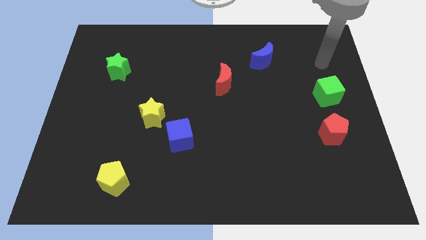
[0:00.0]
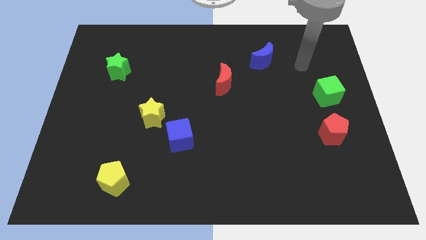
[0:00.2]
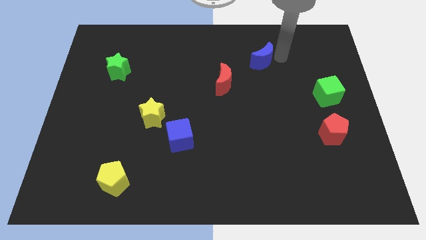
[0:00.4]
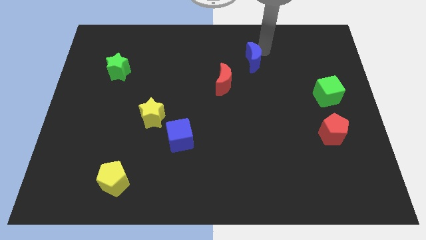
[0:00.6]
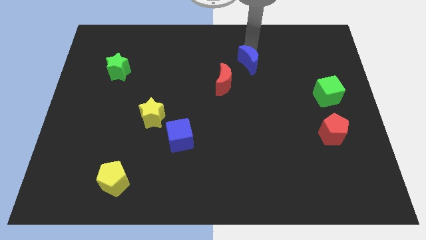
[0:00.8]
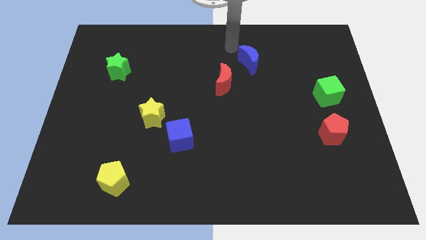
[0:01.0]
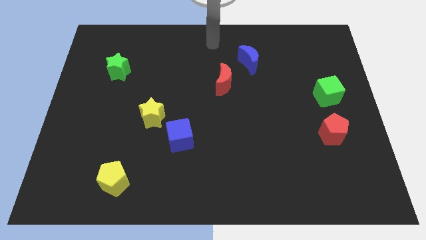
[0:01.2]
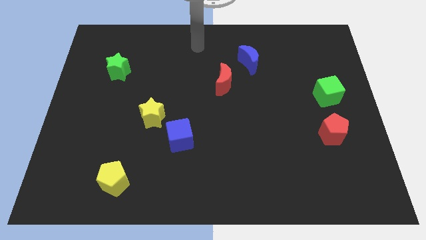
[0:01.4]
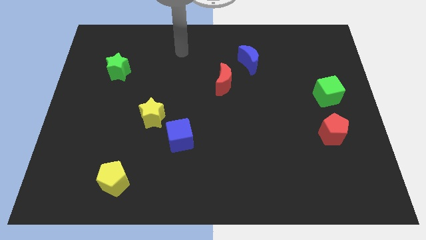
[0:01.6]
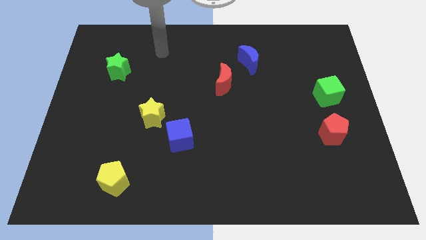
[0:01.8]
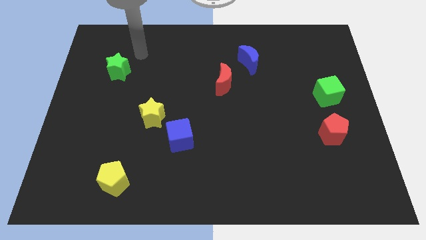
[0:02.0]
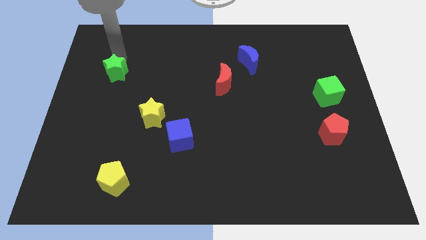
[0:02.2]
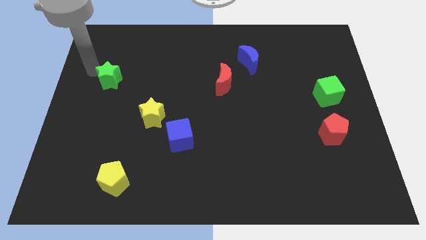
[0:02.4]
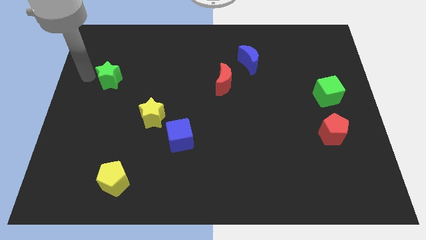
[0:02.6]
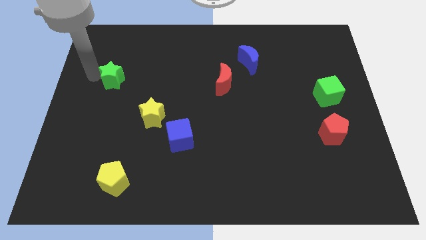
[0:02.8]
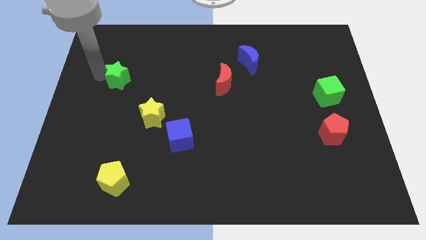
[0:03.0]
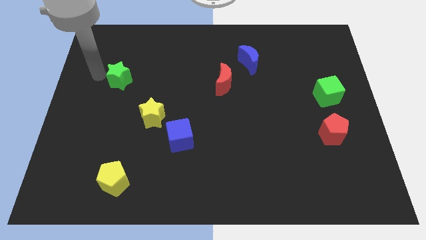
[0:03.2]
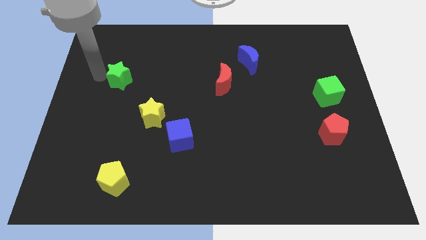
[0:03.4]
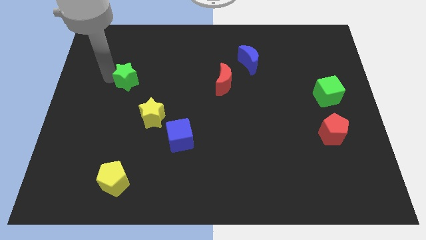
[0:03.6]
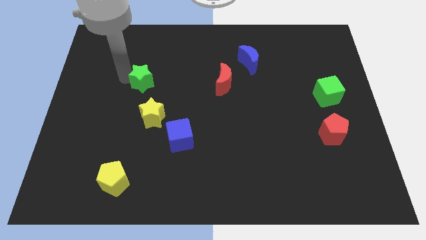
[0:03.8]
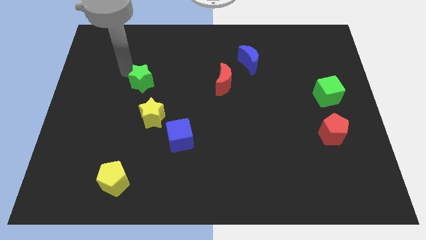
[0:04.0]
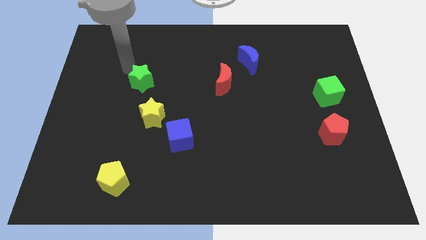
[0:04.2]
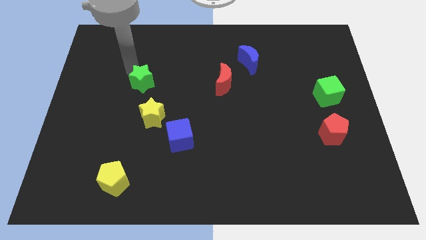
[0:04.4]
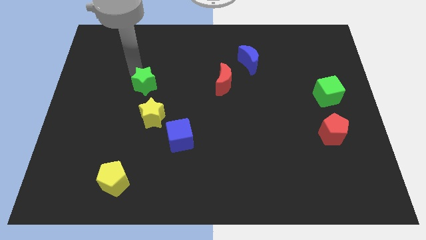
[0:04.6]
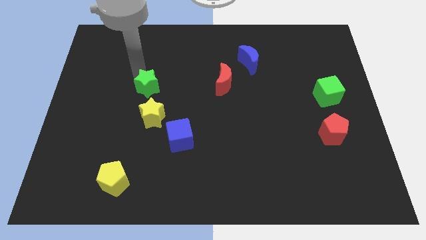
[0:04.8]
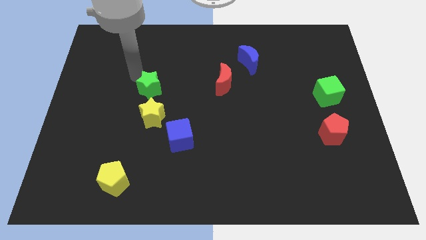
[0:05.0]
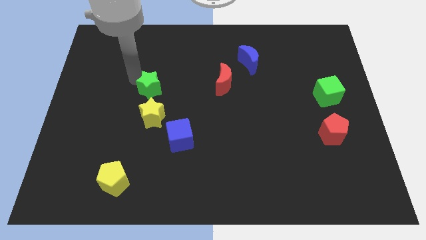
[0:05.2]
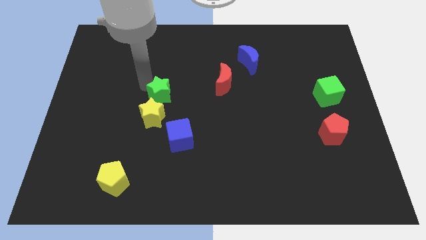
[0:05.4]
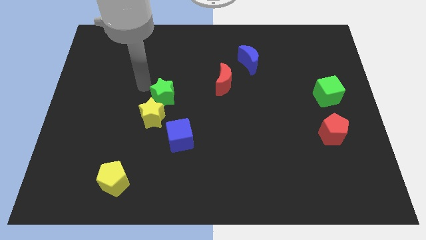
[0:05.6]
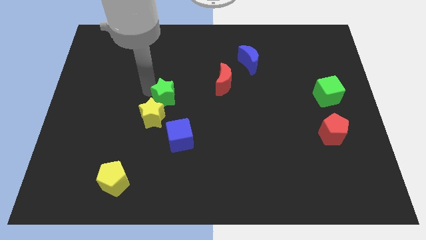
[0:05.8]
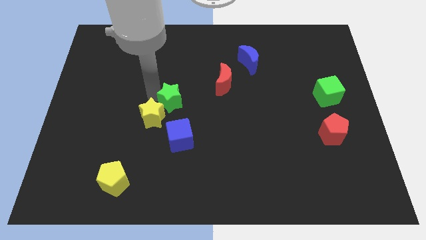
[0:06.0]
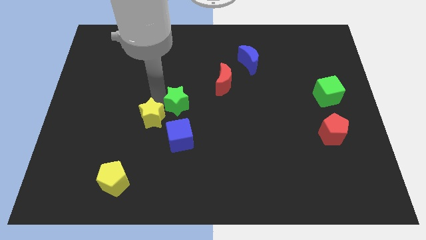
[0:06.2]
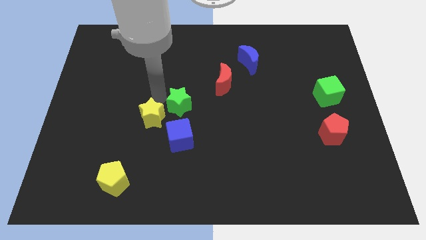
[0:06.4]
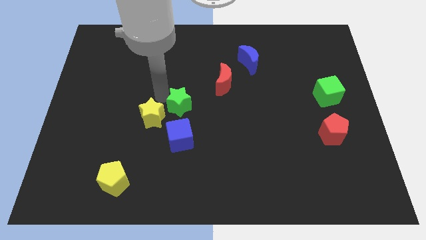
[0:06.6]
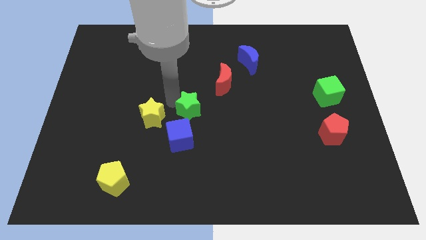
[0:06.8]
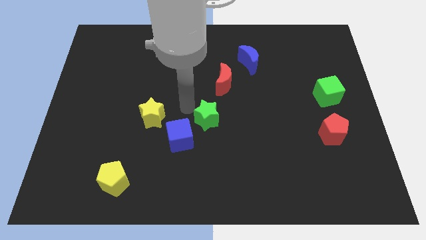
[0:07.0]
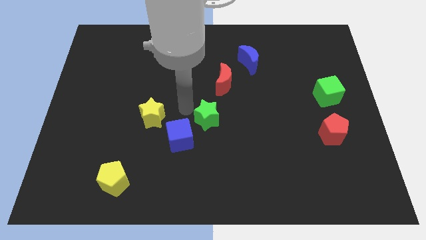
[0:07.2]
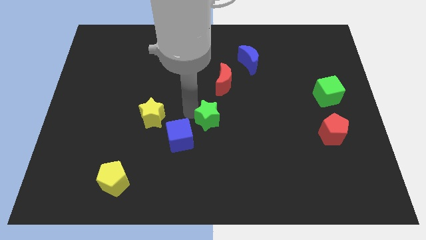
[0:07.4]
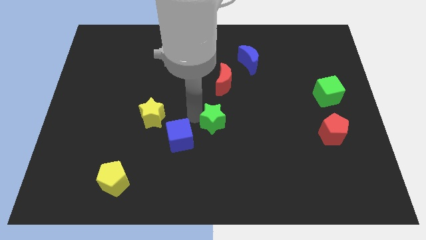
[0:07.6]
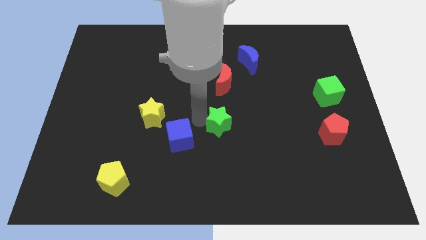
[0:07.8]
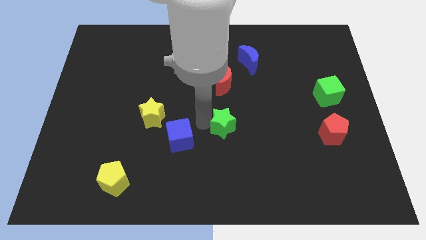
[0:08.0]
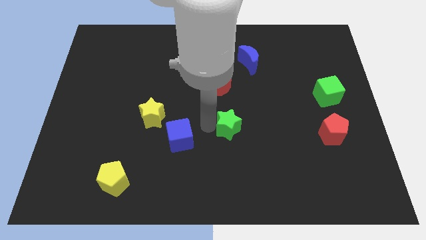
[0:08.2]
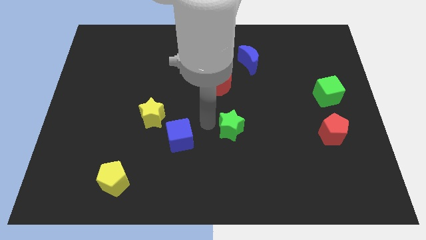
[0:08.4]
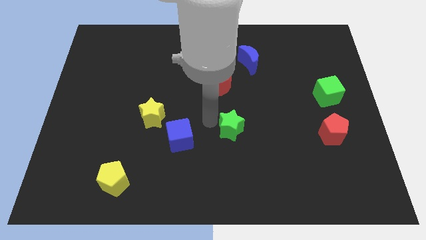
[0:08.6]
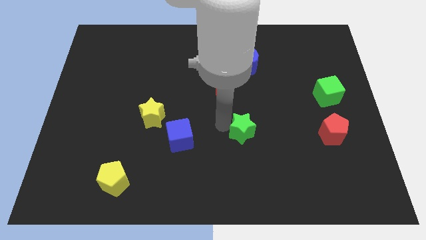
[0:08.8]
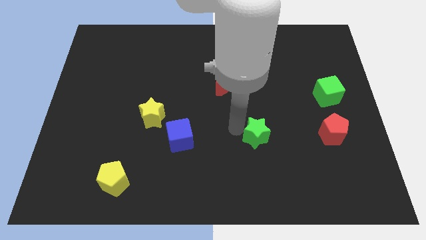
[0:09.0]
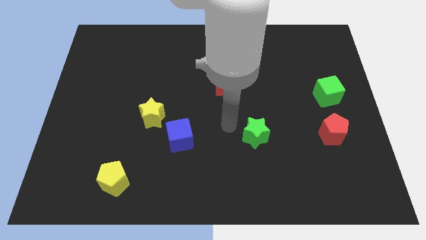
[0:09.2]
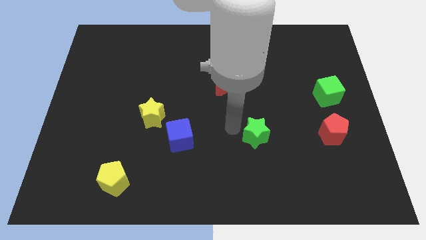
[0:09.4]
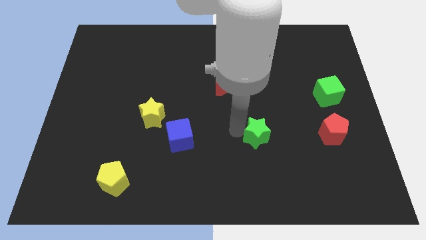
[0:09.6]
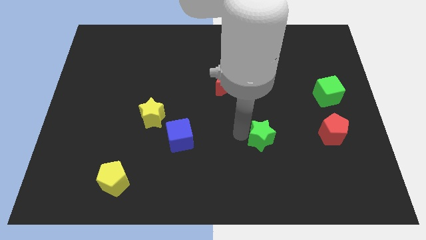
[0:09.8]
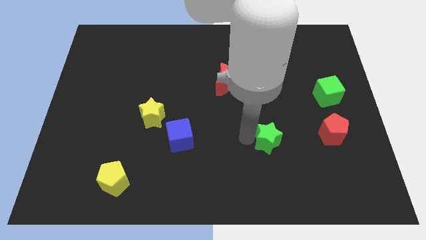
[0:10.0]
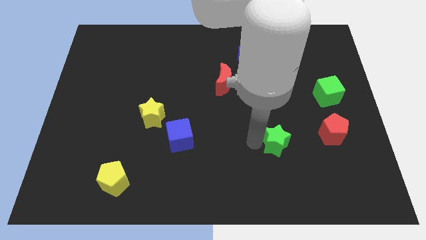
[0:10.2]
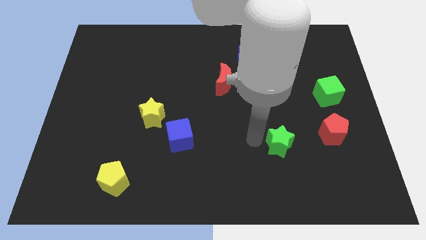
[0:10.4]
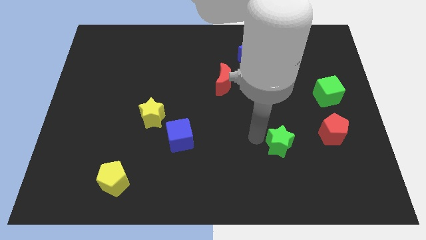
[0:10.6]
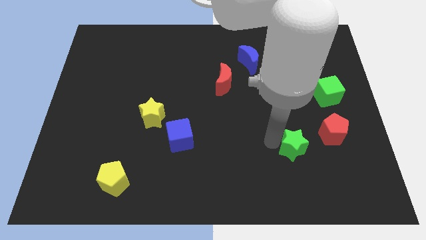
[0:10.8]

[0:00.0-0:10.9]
put the green star to the bottom left of the red pentagon

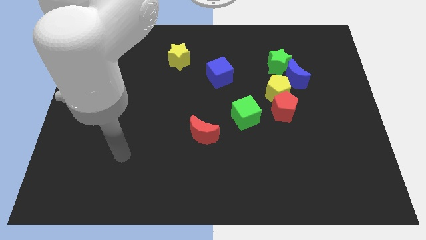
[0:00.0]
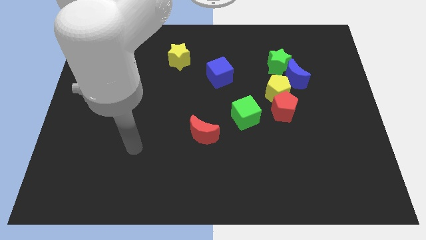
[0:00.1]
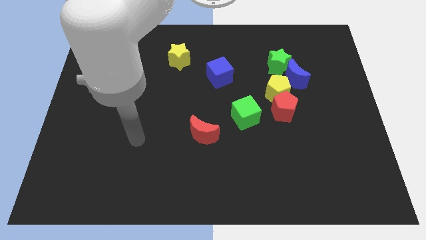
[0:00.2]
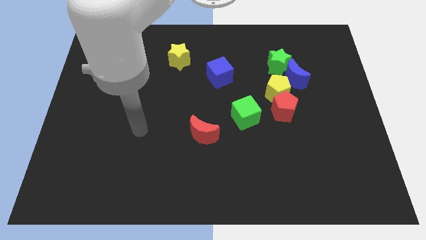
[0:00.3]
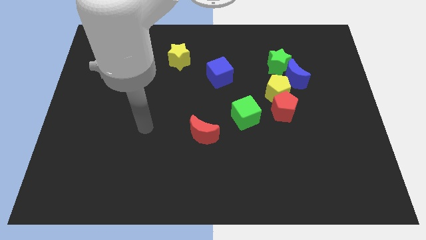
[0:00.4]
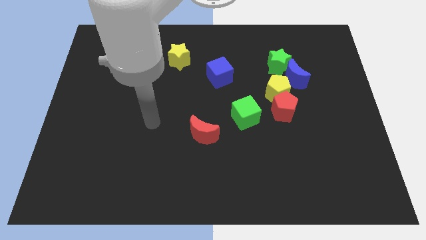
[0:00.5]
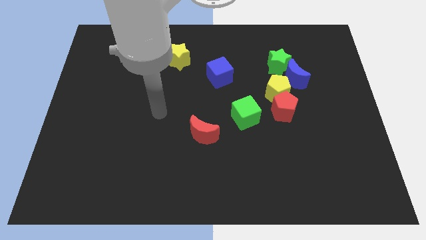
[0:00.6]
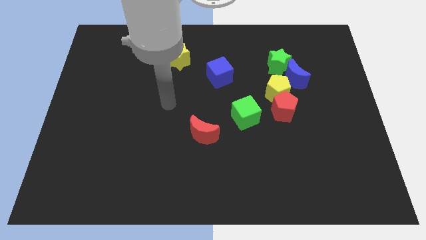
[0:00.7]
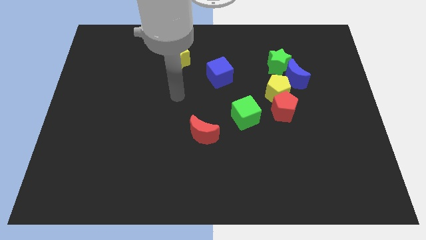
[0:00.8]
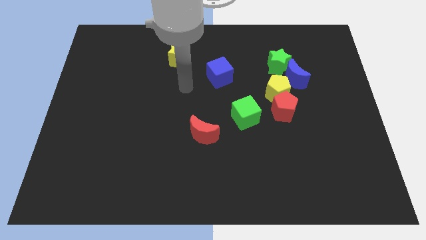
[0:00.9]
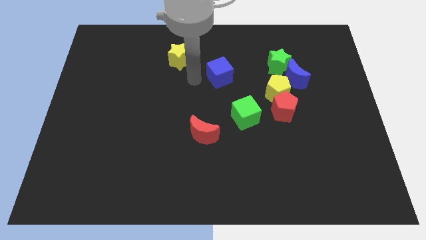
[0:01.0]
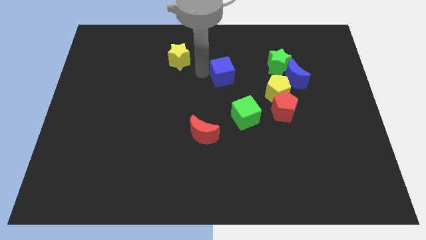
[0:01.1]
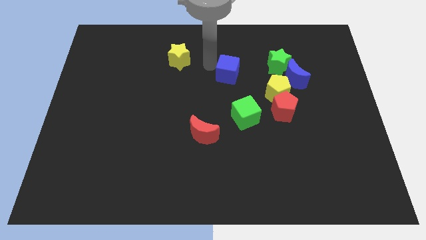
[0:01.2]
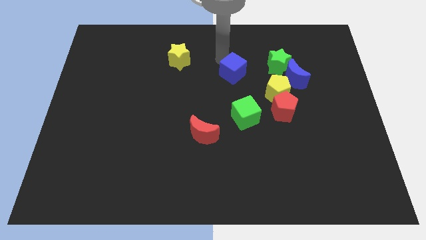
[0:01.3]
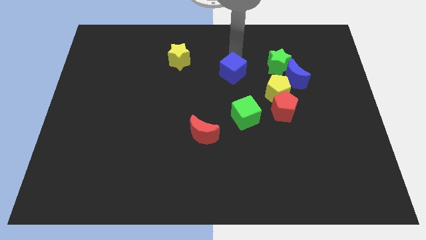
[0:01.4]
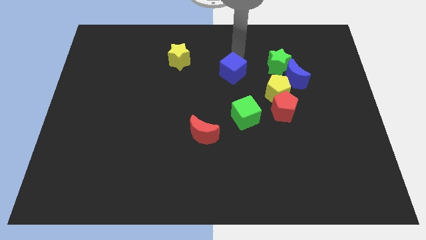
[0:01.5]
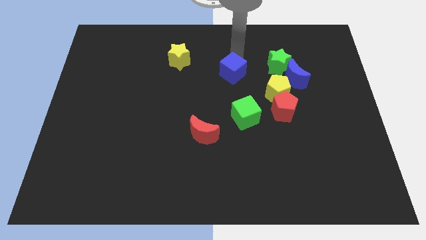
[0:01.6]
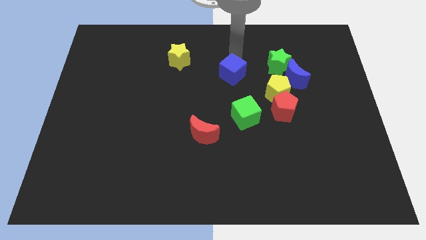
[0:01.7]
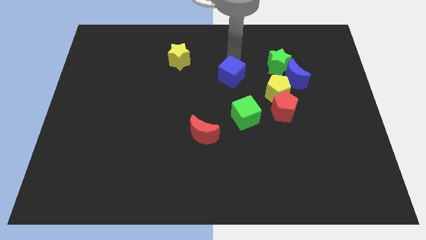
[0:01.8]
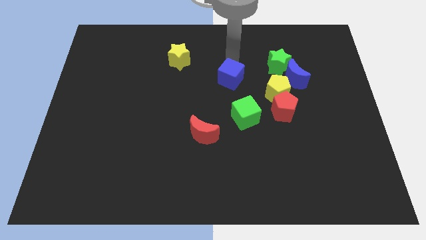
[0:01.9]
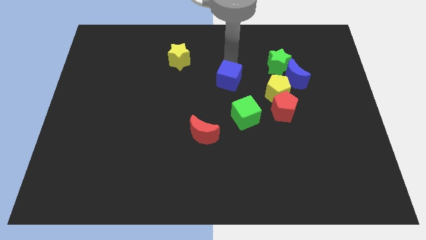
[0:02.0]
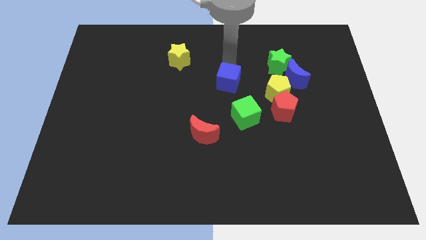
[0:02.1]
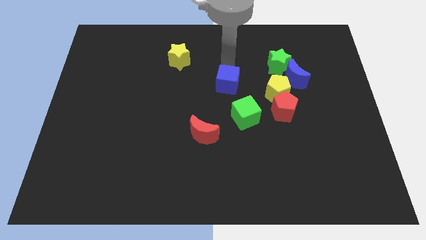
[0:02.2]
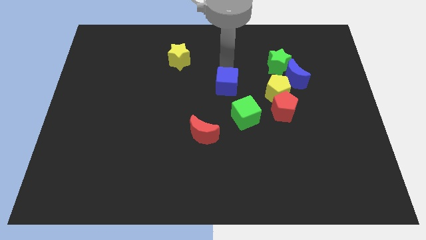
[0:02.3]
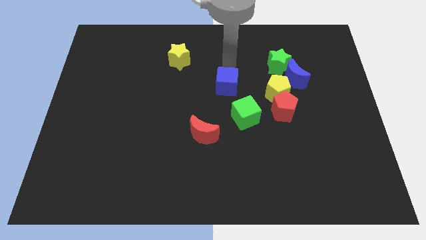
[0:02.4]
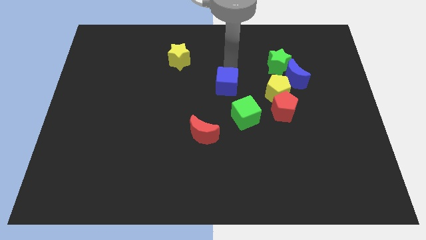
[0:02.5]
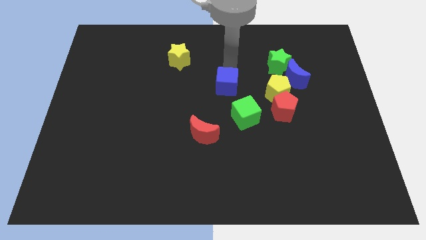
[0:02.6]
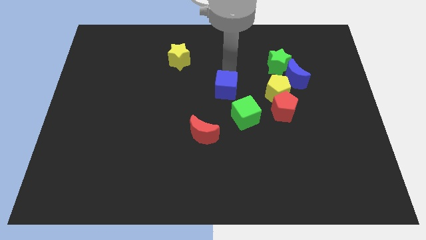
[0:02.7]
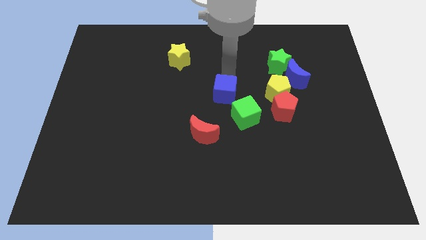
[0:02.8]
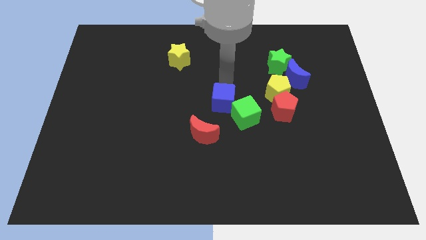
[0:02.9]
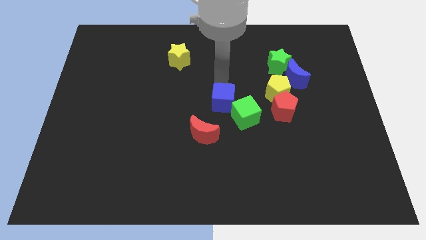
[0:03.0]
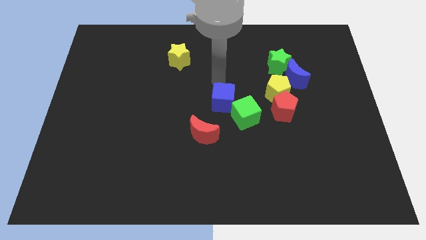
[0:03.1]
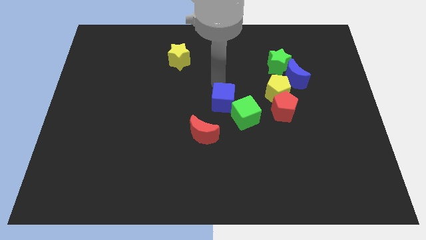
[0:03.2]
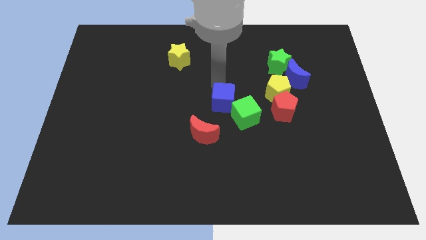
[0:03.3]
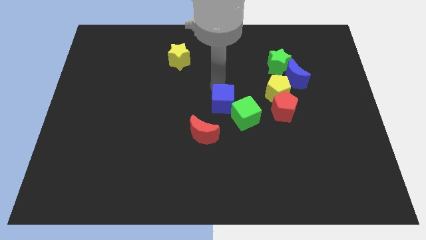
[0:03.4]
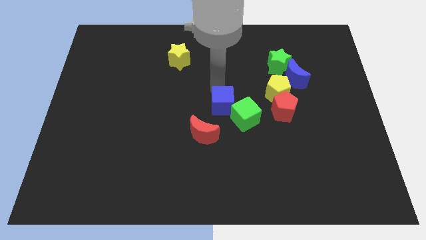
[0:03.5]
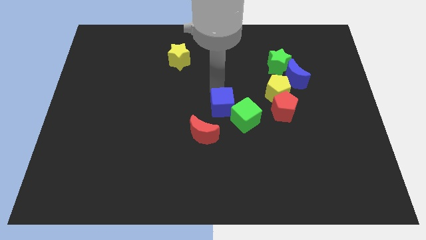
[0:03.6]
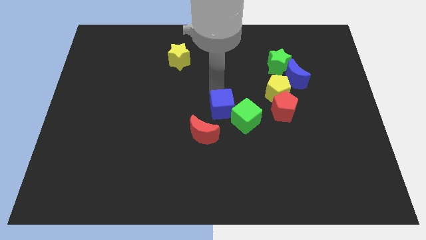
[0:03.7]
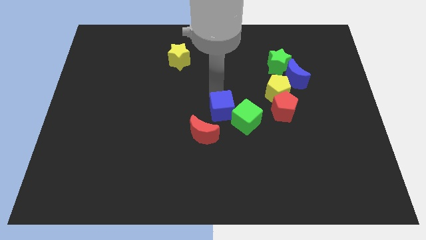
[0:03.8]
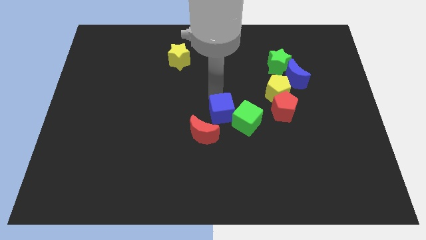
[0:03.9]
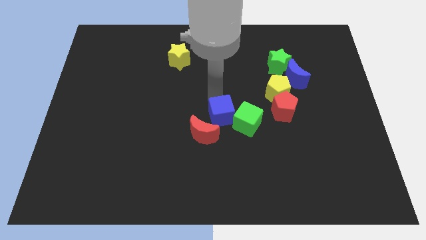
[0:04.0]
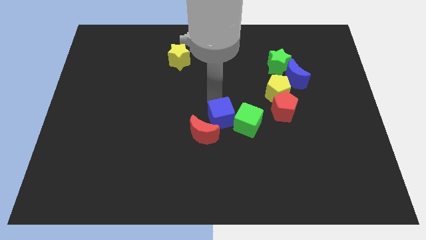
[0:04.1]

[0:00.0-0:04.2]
push the blue cube right of the red moon
